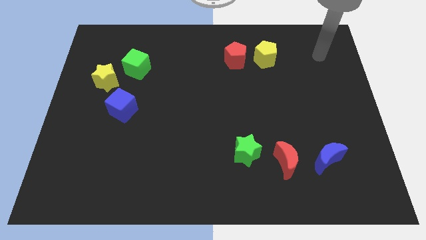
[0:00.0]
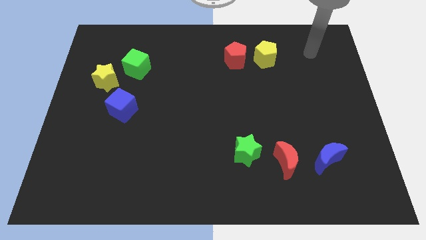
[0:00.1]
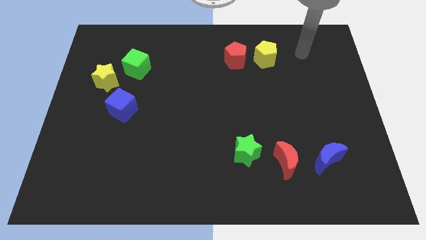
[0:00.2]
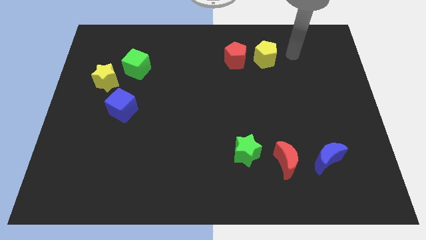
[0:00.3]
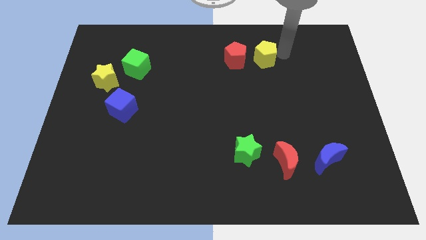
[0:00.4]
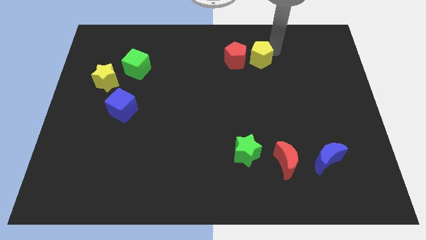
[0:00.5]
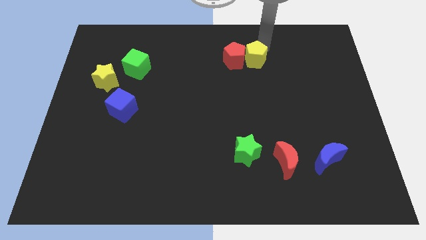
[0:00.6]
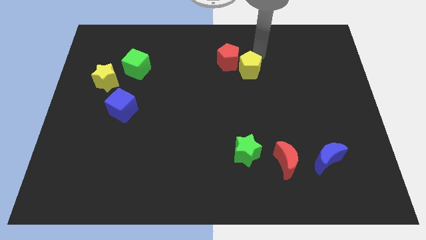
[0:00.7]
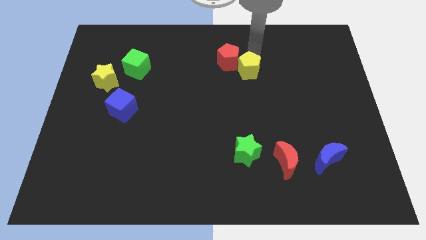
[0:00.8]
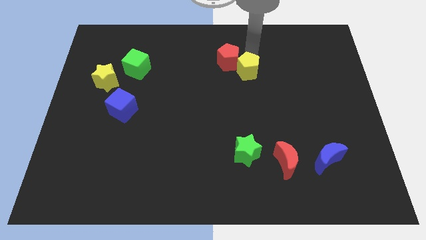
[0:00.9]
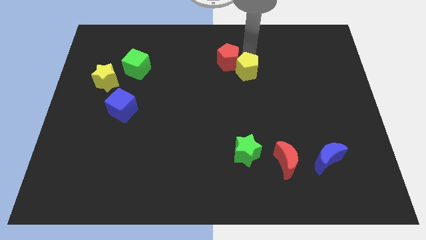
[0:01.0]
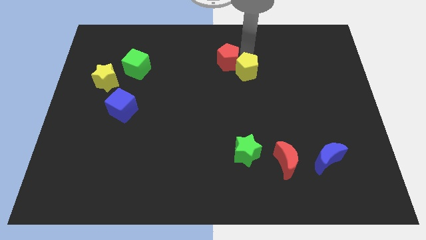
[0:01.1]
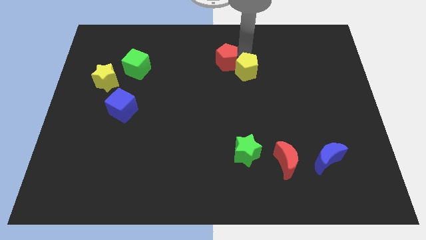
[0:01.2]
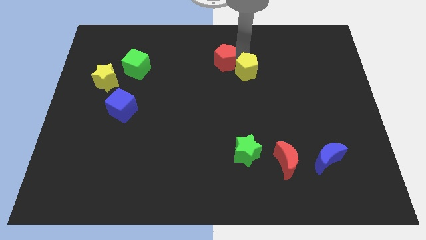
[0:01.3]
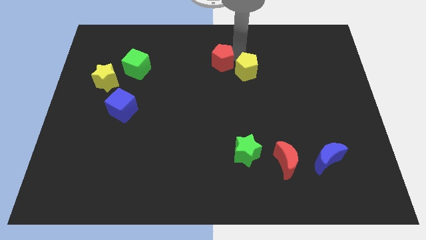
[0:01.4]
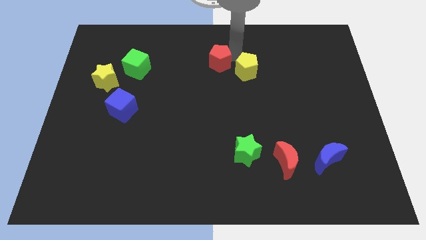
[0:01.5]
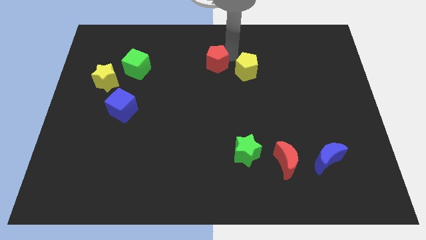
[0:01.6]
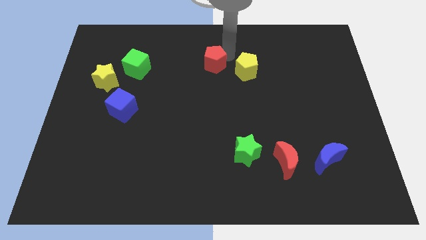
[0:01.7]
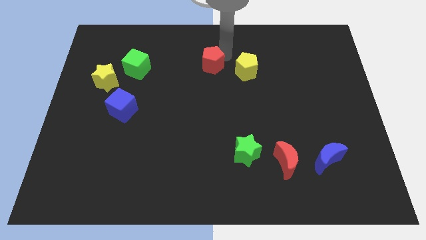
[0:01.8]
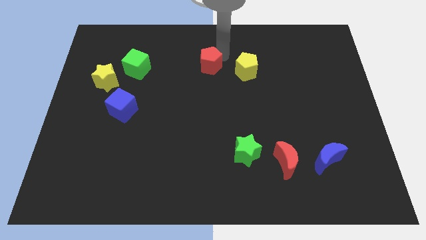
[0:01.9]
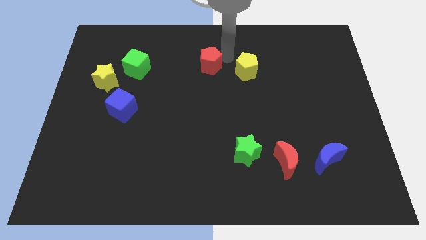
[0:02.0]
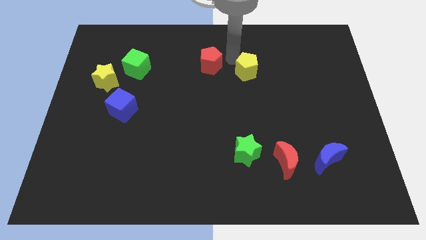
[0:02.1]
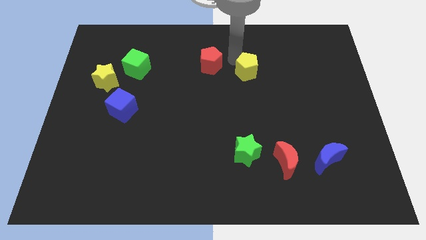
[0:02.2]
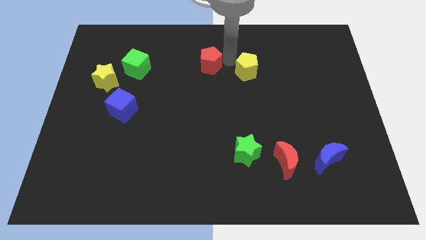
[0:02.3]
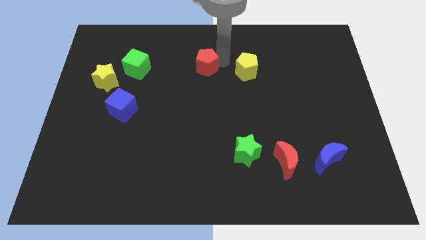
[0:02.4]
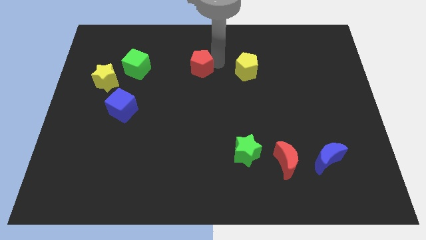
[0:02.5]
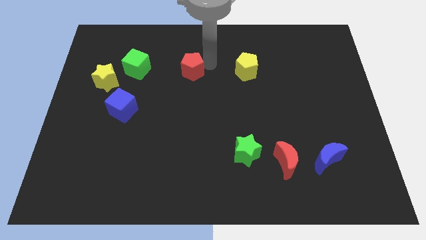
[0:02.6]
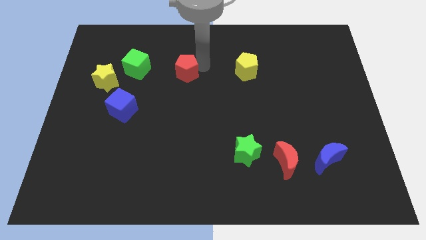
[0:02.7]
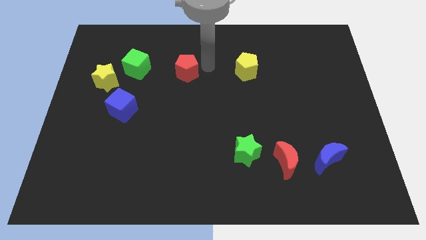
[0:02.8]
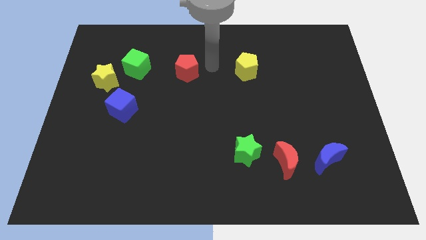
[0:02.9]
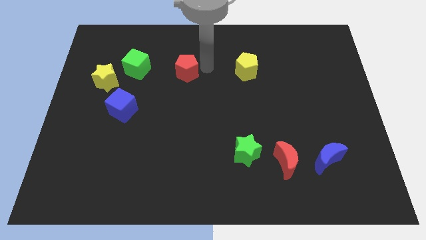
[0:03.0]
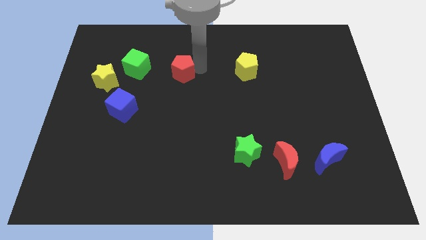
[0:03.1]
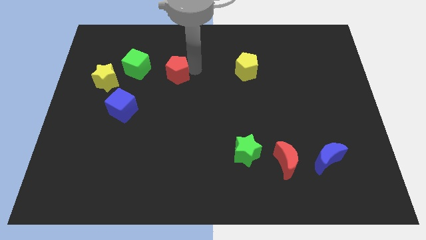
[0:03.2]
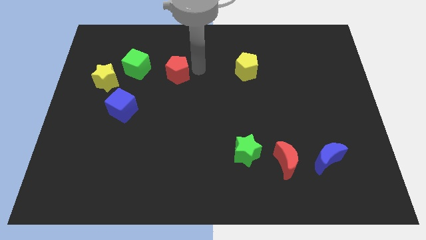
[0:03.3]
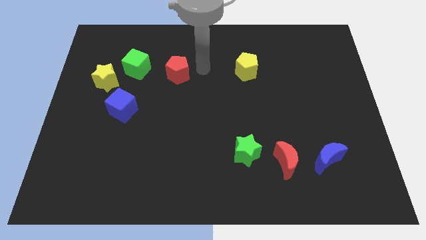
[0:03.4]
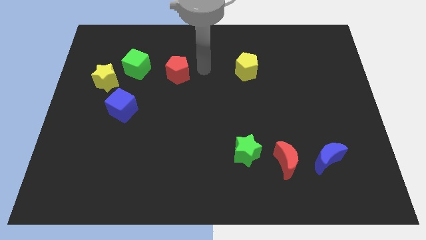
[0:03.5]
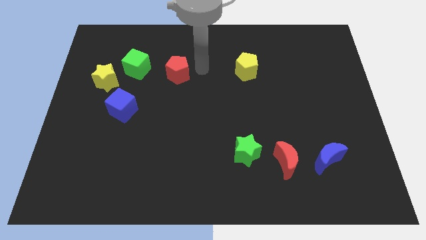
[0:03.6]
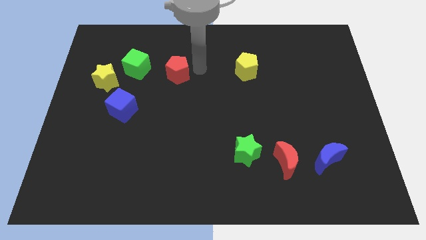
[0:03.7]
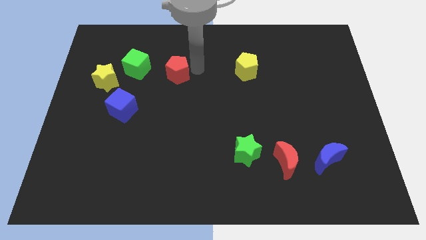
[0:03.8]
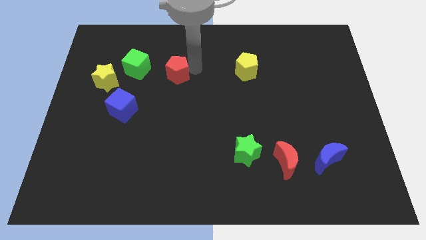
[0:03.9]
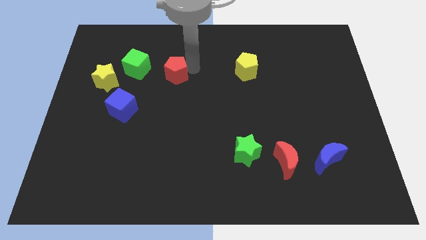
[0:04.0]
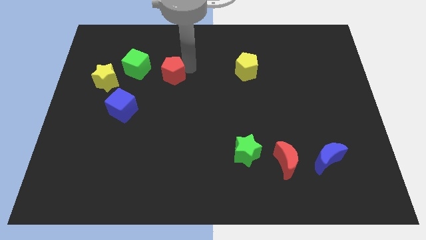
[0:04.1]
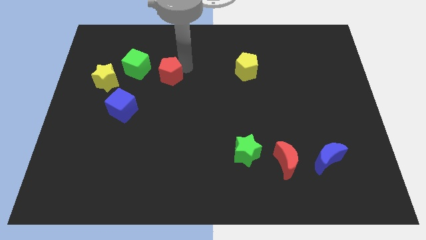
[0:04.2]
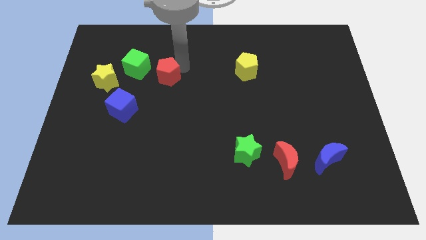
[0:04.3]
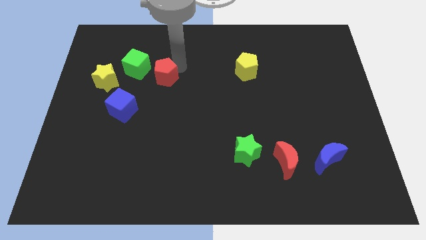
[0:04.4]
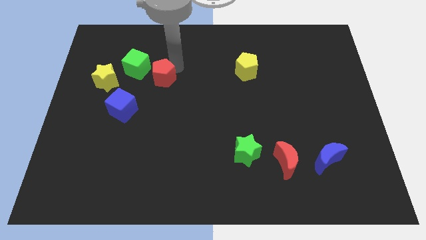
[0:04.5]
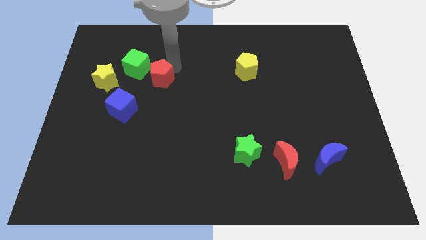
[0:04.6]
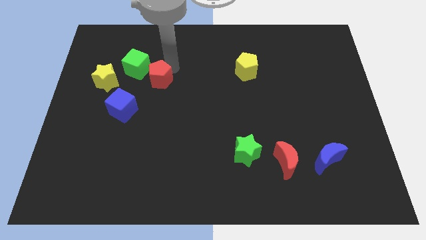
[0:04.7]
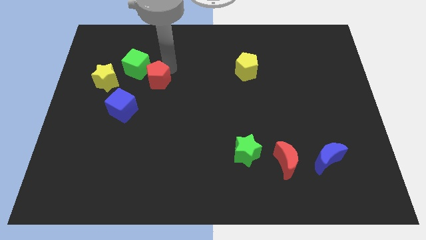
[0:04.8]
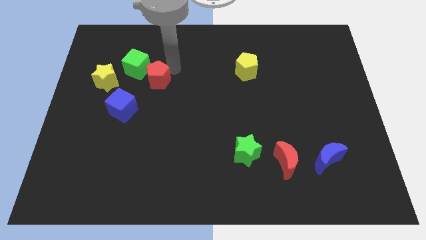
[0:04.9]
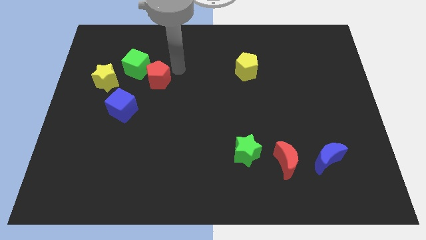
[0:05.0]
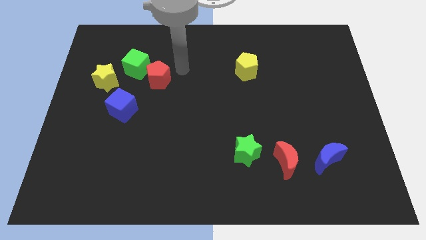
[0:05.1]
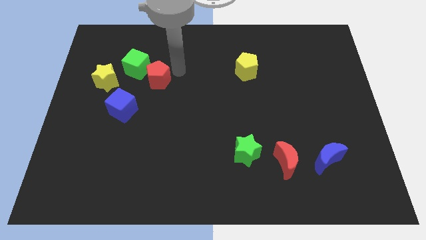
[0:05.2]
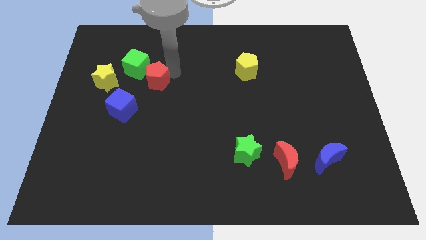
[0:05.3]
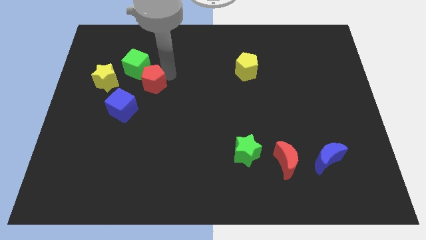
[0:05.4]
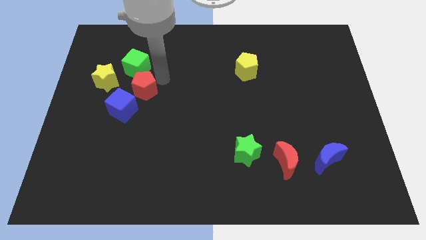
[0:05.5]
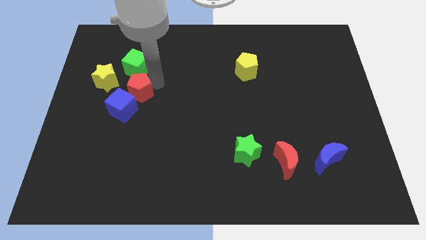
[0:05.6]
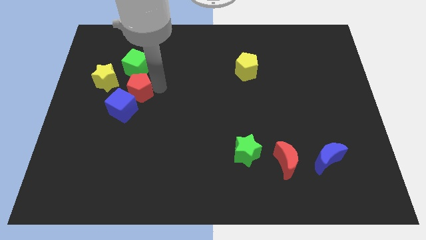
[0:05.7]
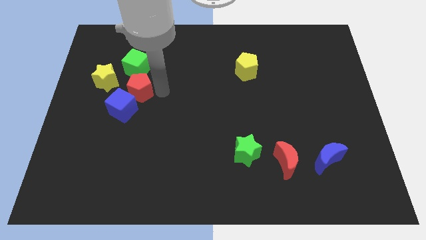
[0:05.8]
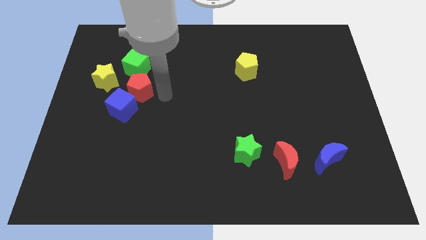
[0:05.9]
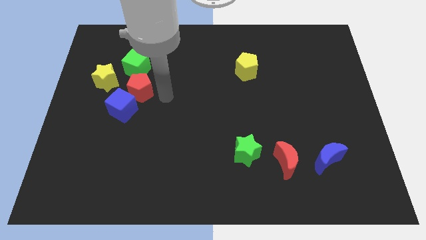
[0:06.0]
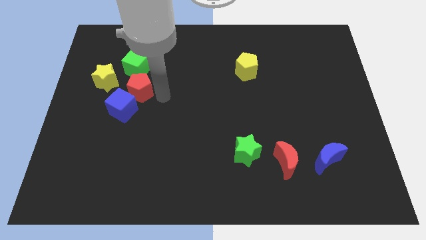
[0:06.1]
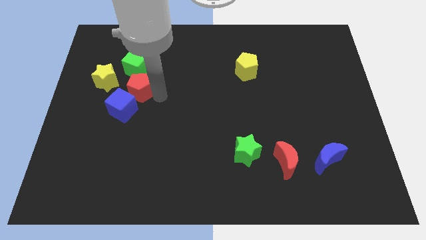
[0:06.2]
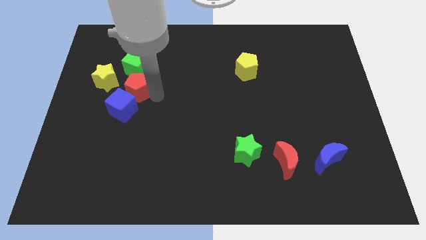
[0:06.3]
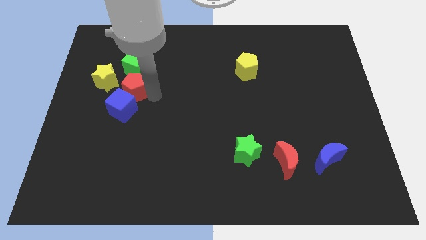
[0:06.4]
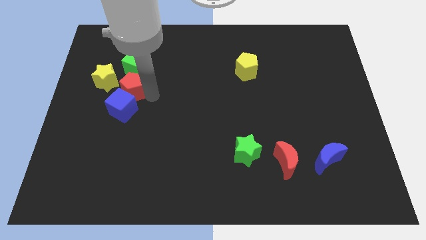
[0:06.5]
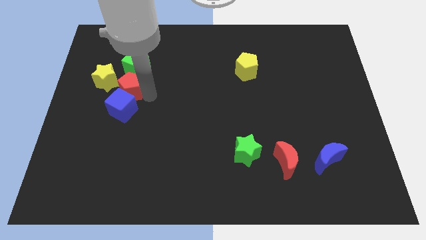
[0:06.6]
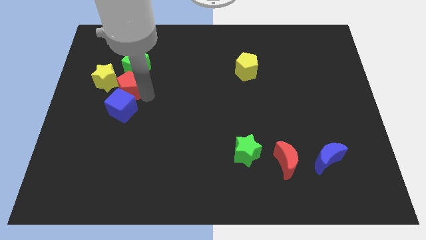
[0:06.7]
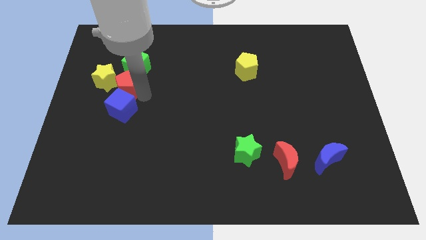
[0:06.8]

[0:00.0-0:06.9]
slide the red pentagon towards the yellow star
